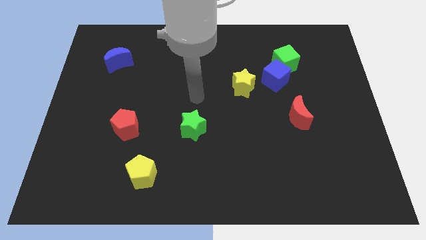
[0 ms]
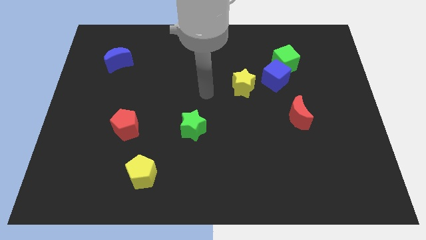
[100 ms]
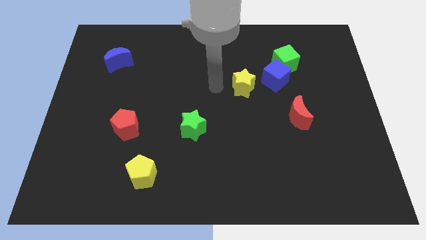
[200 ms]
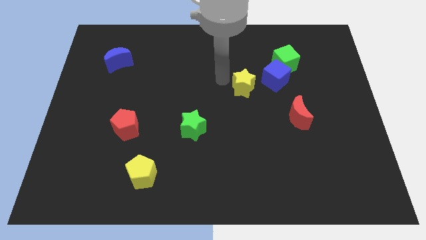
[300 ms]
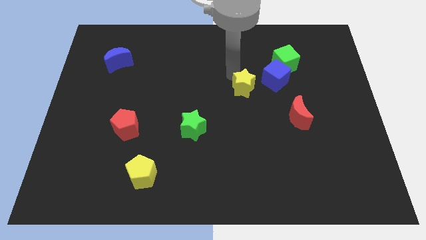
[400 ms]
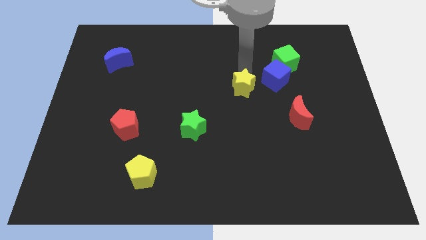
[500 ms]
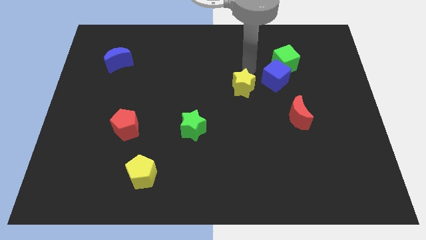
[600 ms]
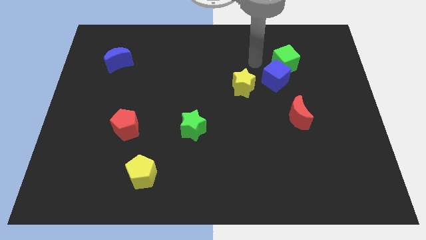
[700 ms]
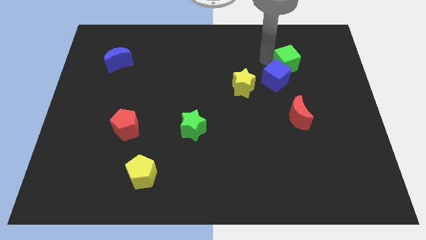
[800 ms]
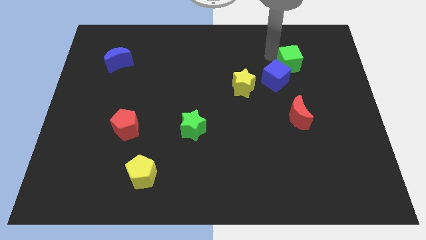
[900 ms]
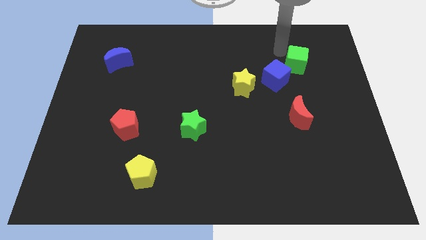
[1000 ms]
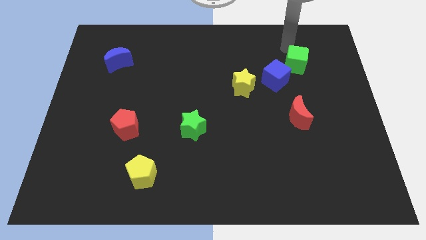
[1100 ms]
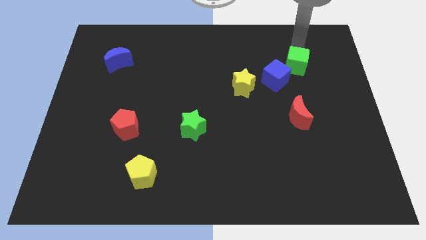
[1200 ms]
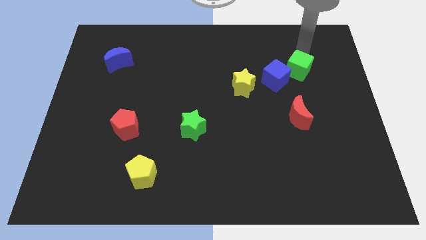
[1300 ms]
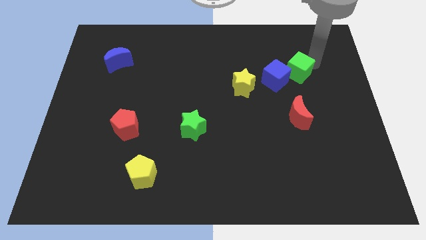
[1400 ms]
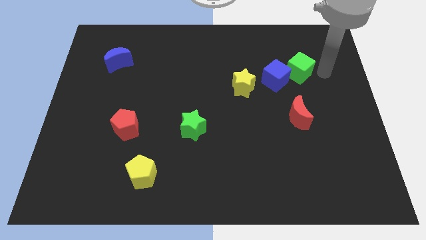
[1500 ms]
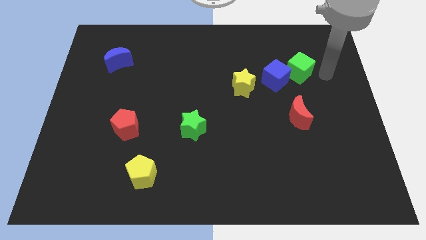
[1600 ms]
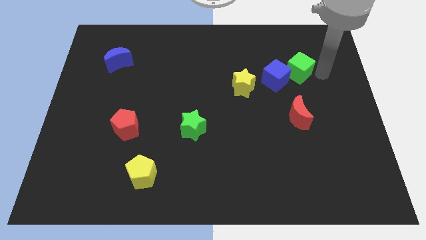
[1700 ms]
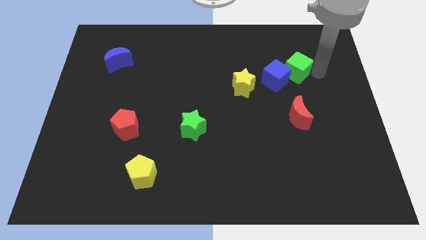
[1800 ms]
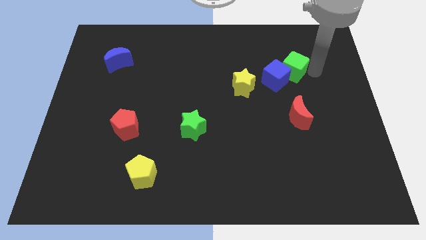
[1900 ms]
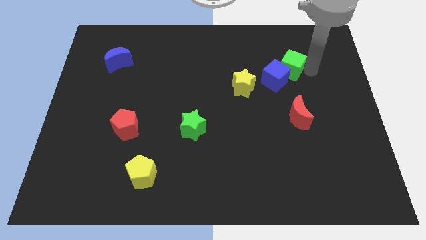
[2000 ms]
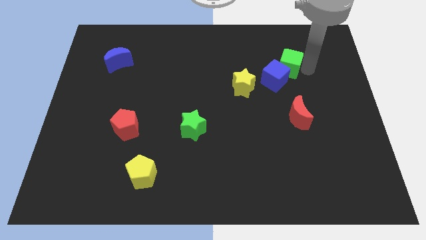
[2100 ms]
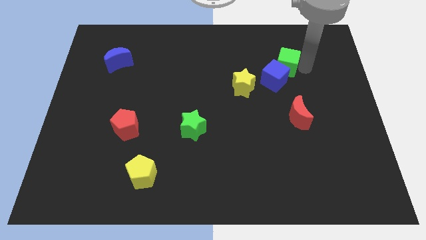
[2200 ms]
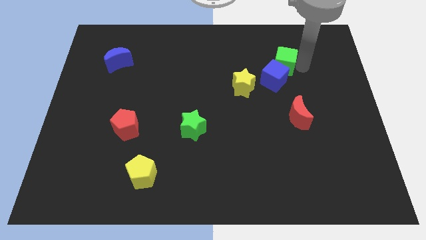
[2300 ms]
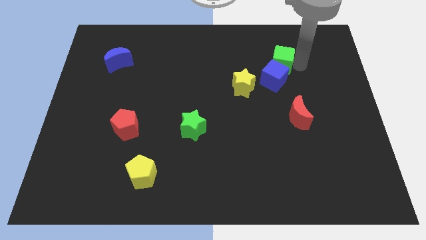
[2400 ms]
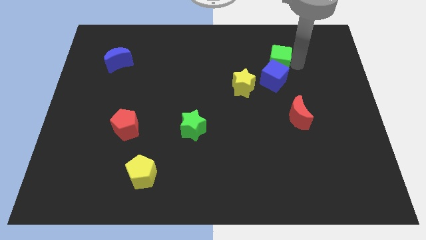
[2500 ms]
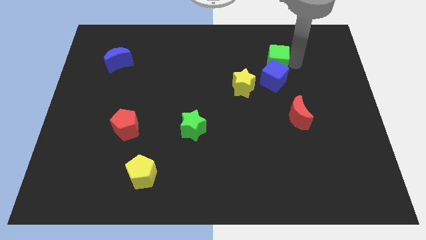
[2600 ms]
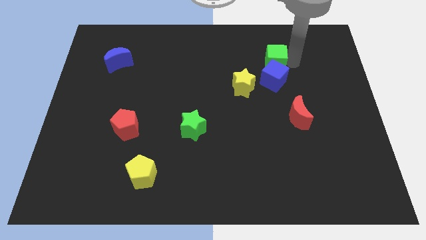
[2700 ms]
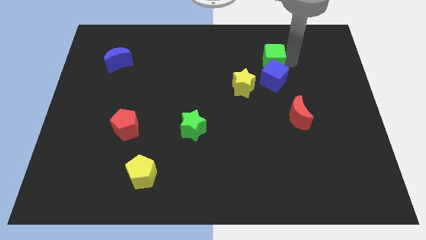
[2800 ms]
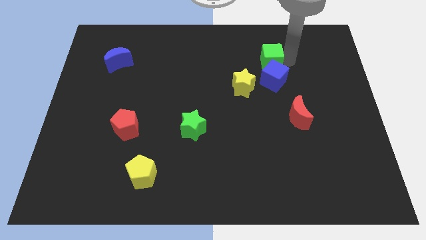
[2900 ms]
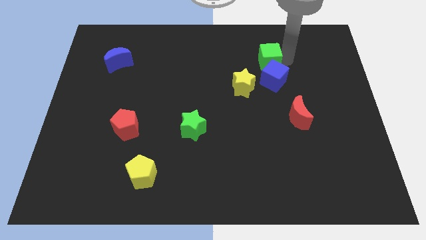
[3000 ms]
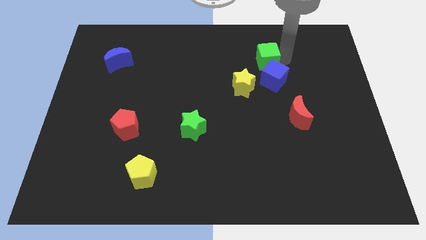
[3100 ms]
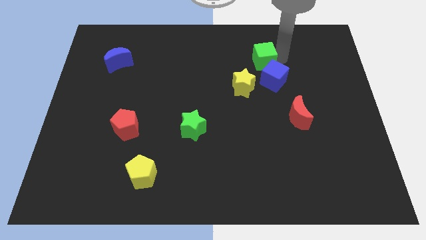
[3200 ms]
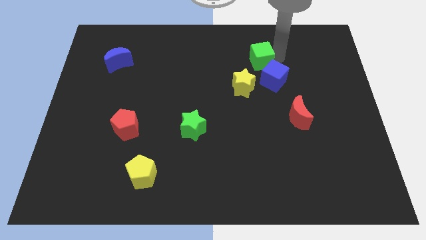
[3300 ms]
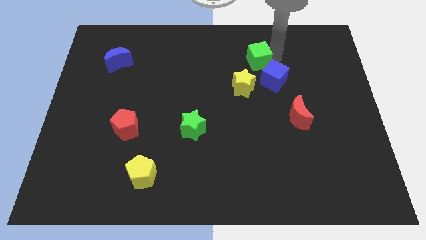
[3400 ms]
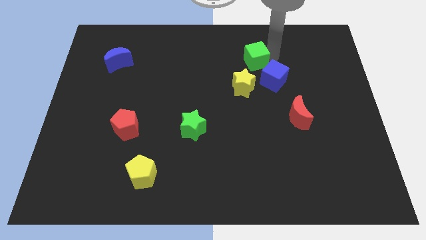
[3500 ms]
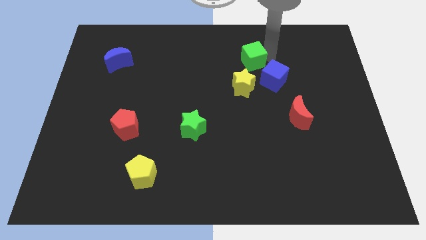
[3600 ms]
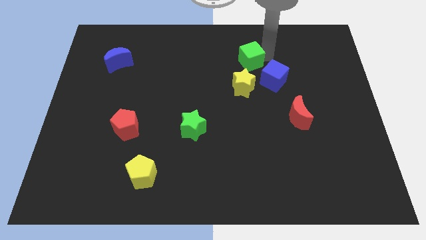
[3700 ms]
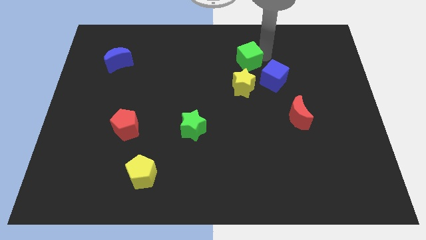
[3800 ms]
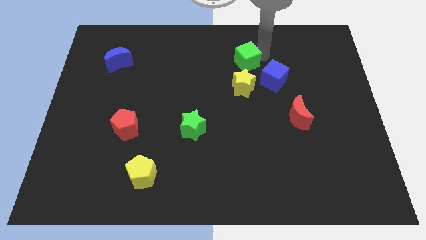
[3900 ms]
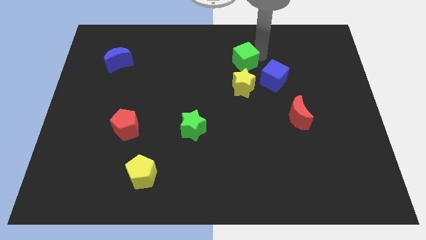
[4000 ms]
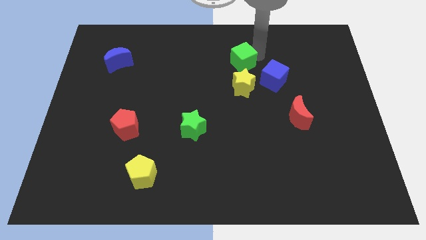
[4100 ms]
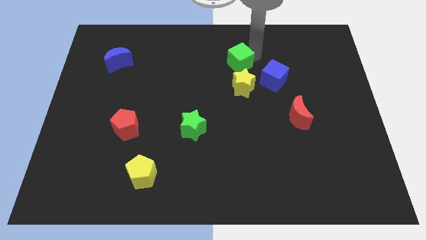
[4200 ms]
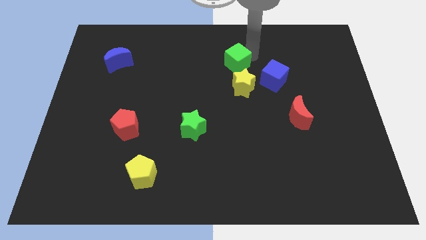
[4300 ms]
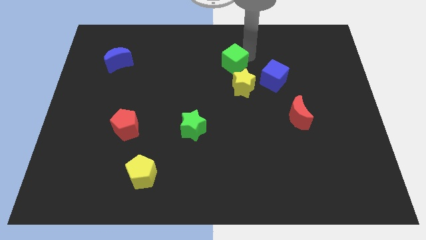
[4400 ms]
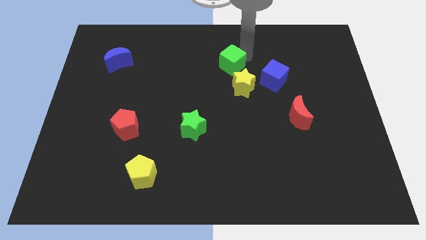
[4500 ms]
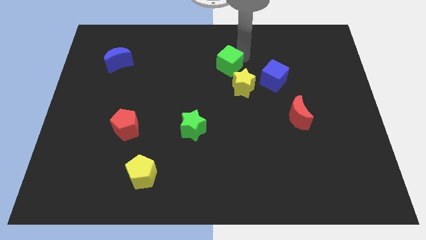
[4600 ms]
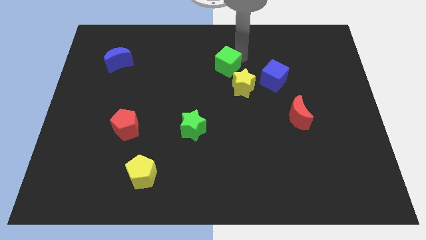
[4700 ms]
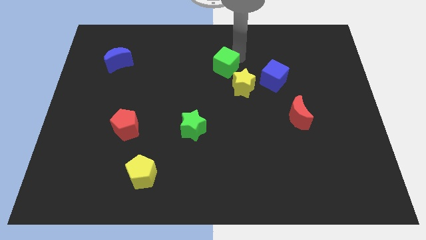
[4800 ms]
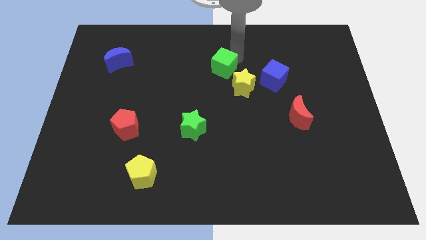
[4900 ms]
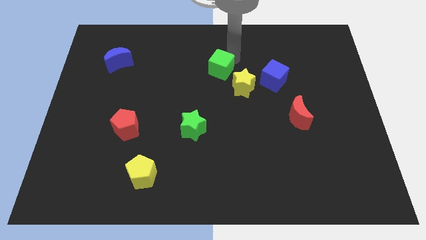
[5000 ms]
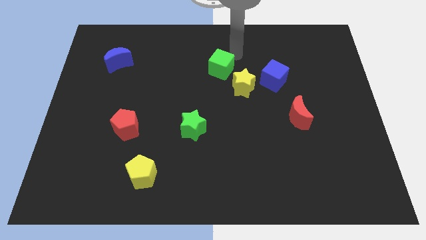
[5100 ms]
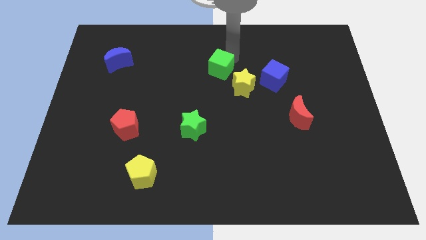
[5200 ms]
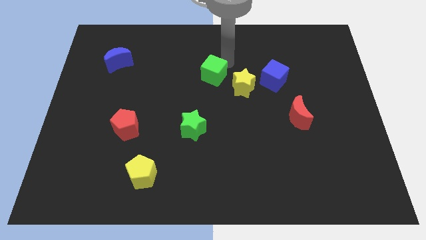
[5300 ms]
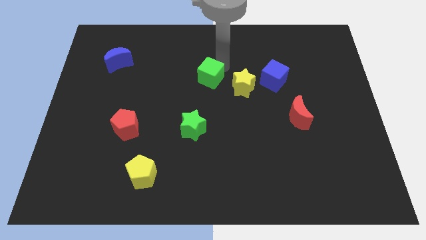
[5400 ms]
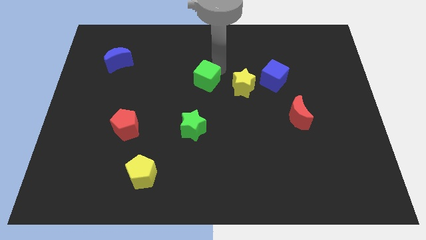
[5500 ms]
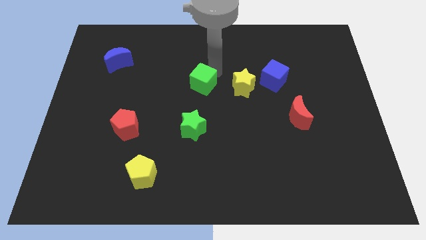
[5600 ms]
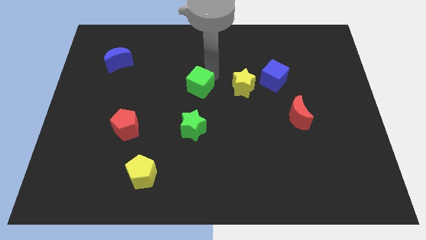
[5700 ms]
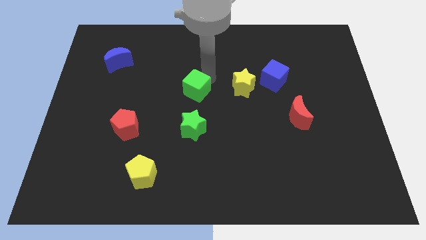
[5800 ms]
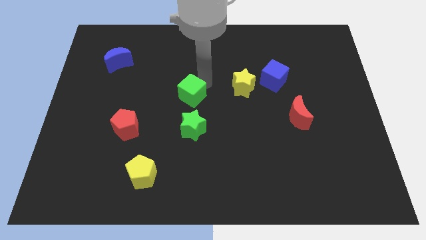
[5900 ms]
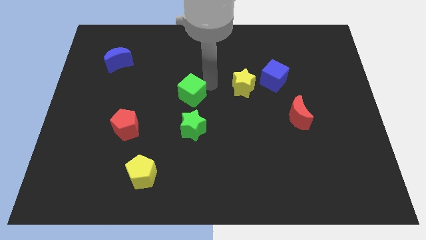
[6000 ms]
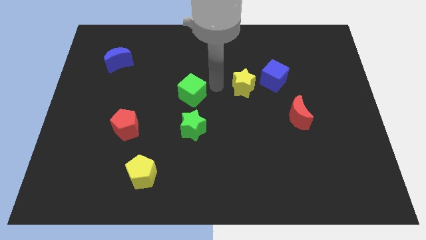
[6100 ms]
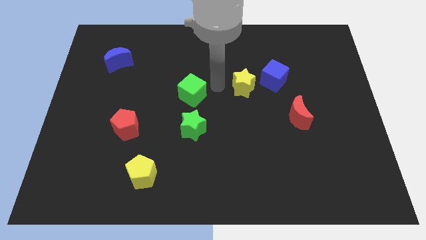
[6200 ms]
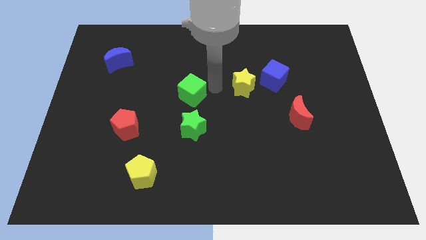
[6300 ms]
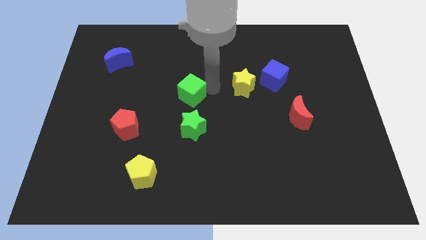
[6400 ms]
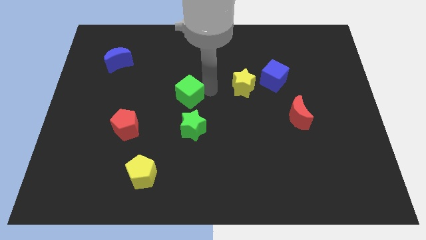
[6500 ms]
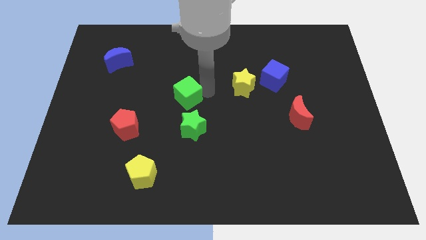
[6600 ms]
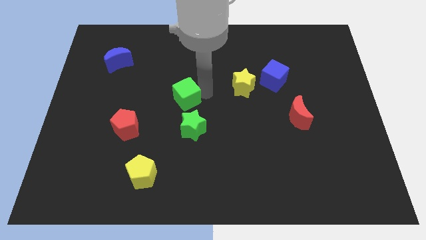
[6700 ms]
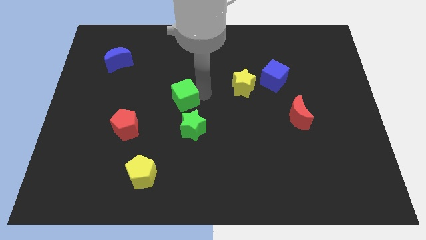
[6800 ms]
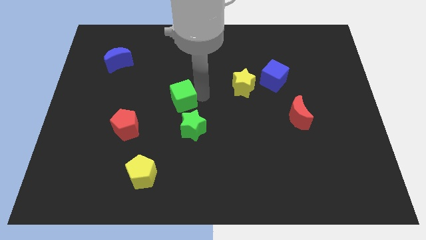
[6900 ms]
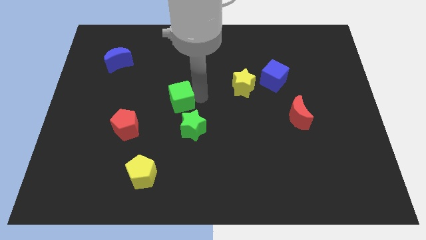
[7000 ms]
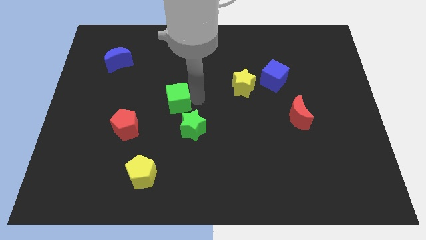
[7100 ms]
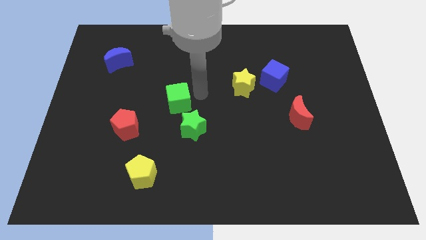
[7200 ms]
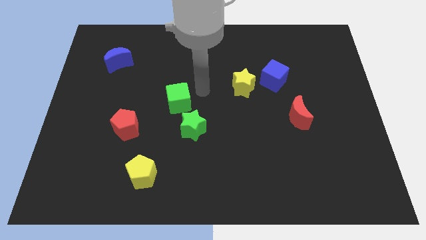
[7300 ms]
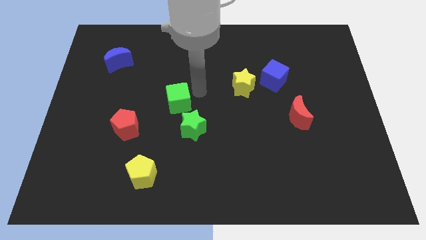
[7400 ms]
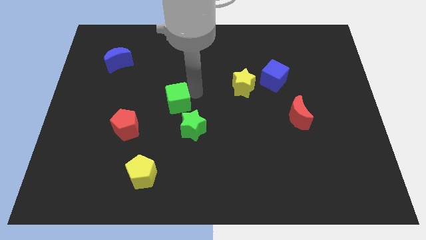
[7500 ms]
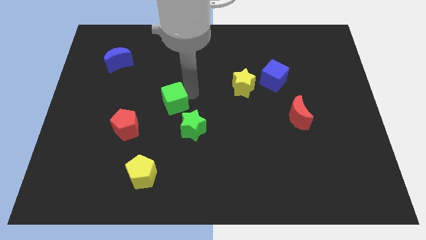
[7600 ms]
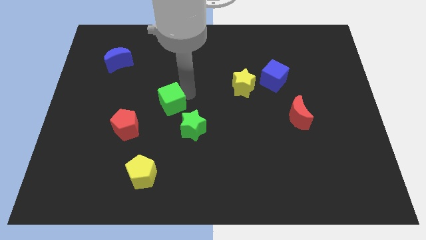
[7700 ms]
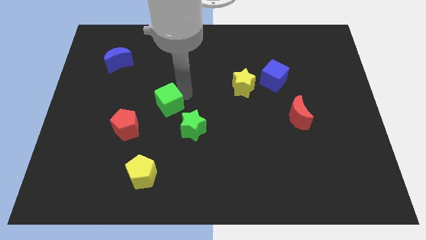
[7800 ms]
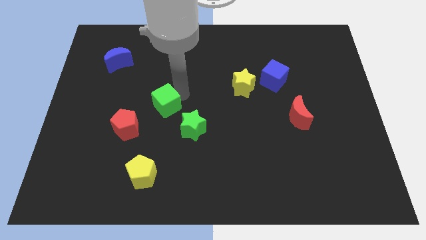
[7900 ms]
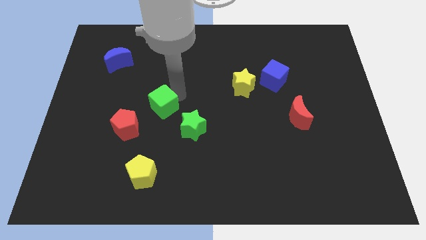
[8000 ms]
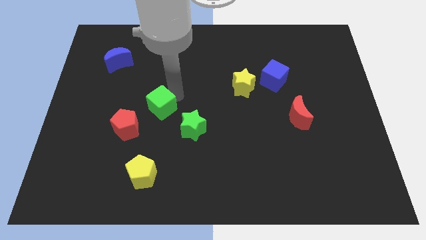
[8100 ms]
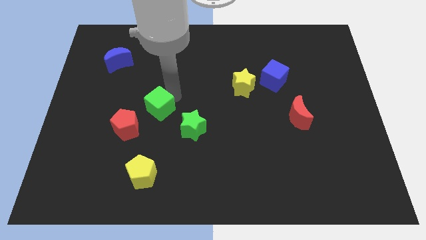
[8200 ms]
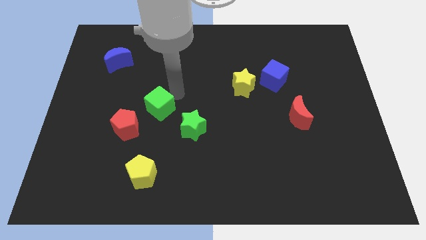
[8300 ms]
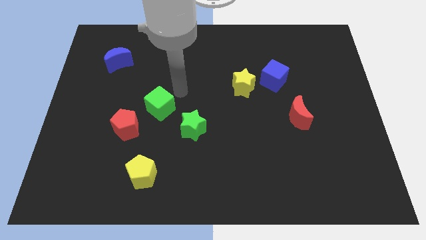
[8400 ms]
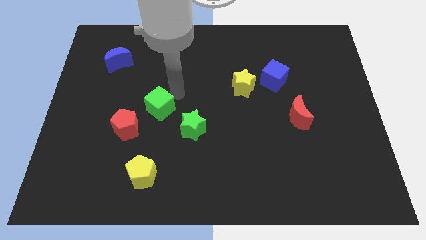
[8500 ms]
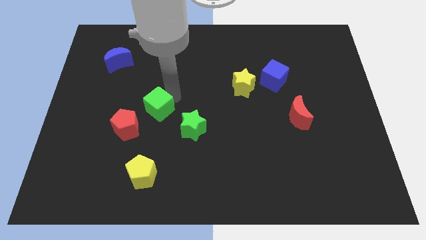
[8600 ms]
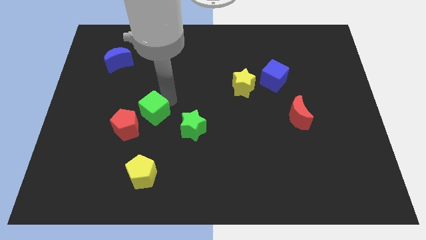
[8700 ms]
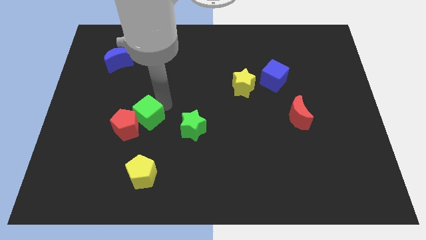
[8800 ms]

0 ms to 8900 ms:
slide the green cube close to the red pentagon
